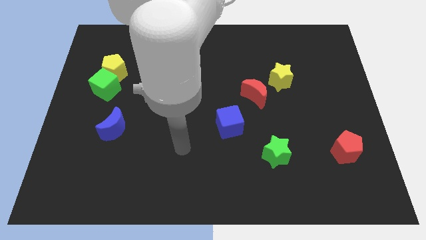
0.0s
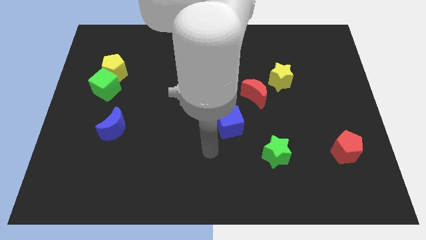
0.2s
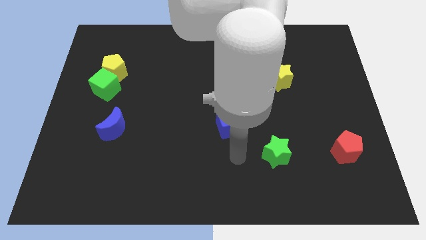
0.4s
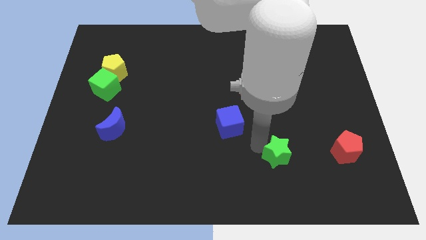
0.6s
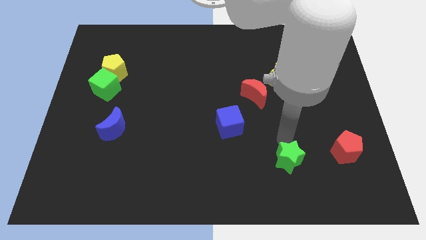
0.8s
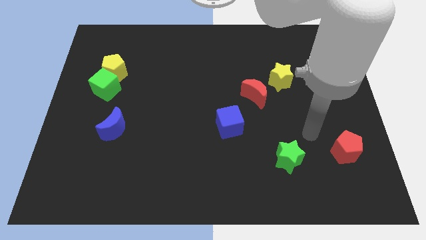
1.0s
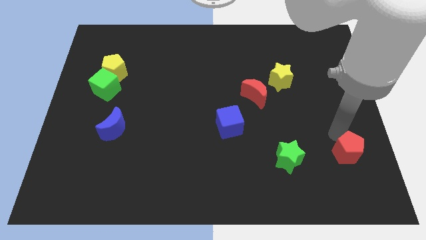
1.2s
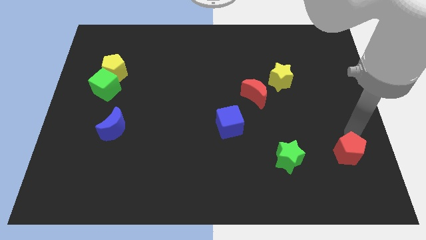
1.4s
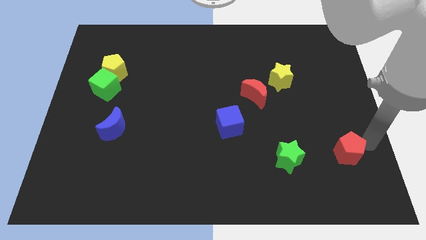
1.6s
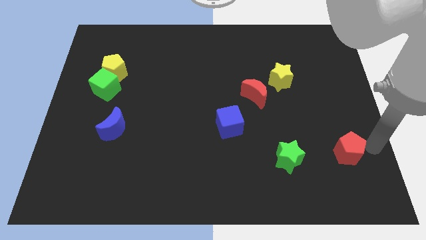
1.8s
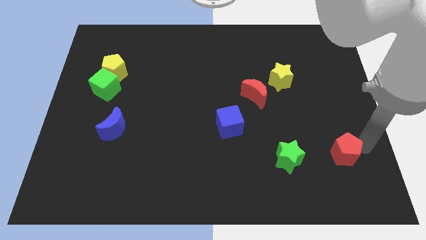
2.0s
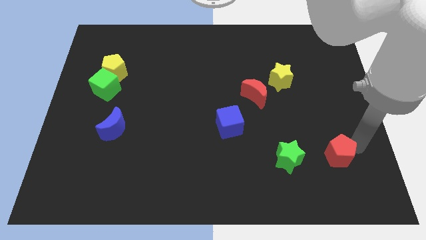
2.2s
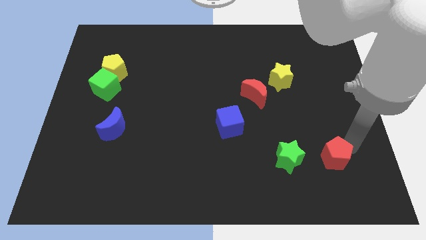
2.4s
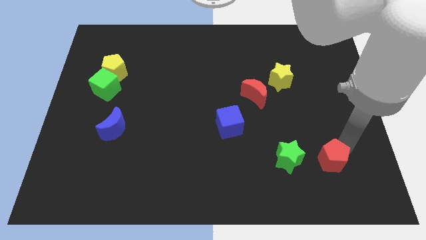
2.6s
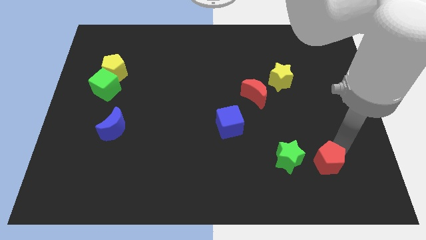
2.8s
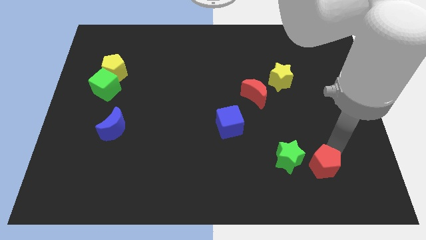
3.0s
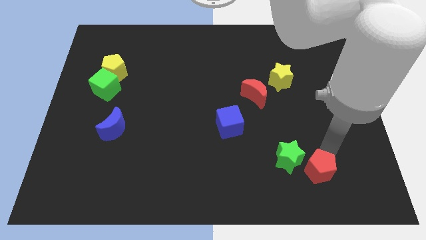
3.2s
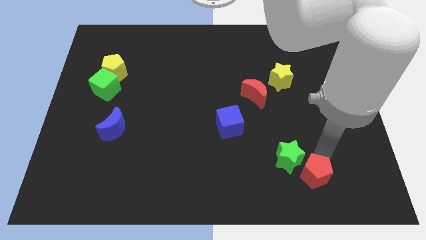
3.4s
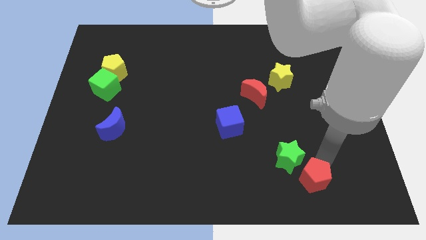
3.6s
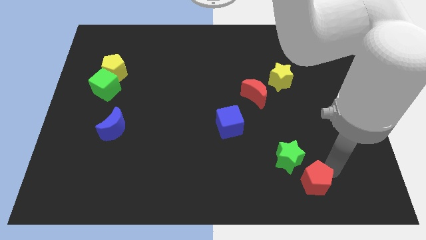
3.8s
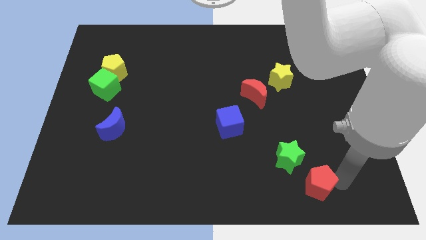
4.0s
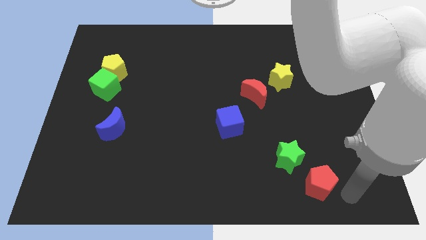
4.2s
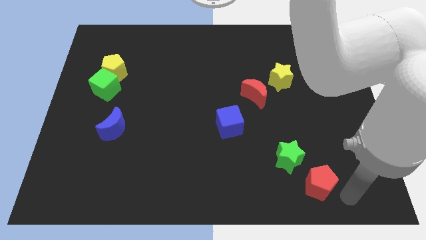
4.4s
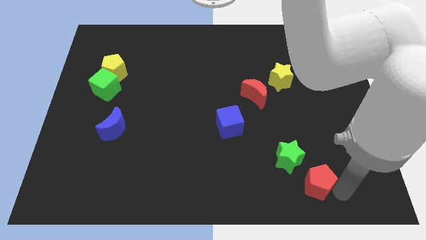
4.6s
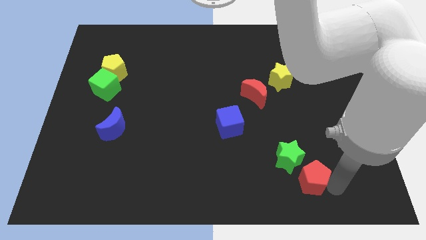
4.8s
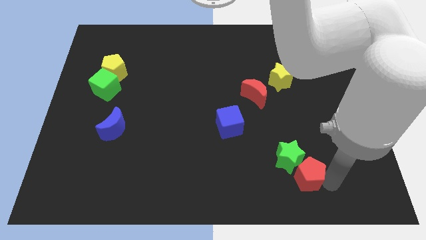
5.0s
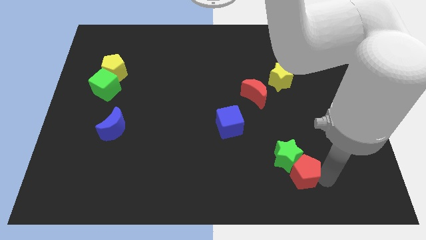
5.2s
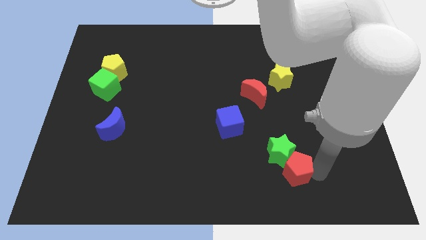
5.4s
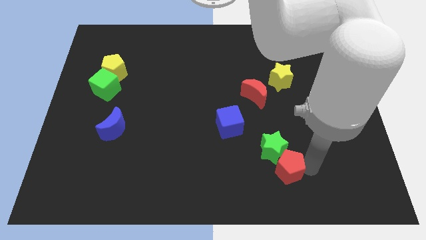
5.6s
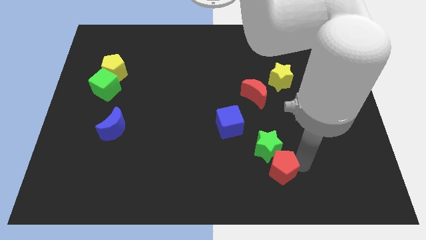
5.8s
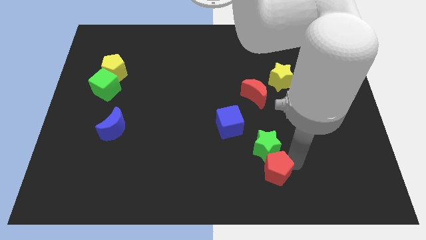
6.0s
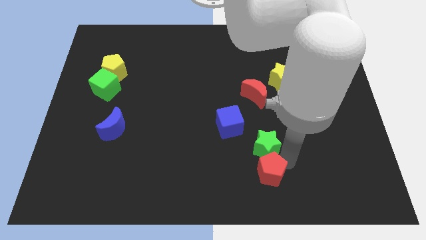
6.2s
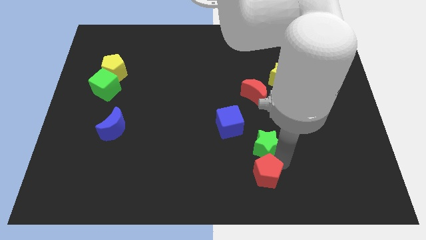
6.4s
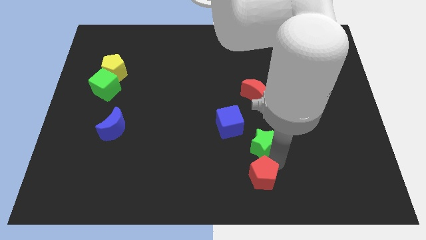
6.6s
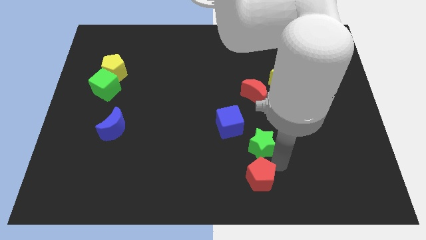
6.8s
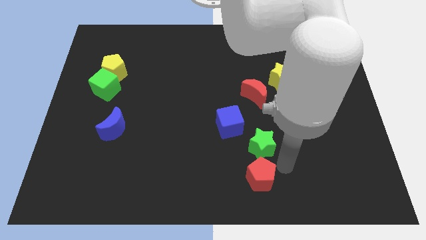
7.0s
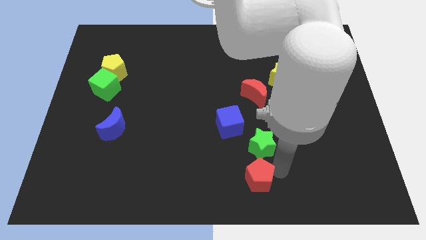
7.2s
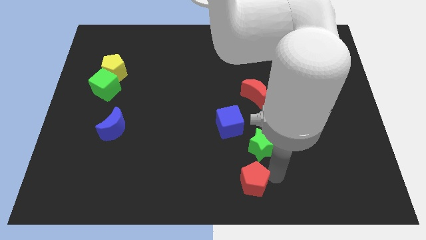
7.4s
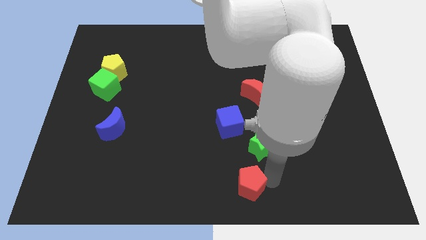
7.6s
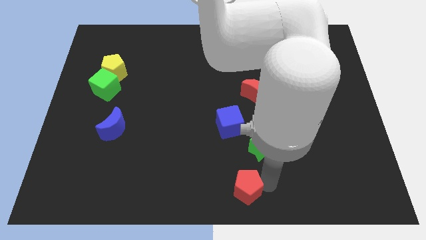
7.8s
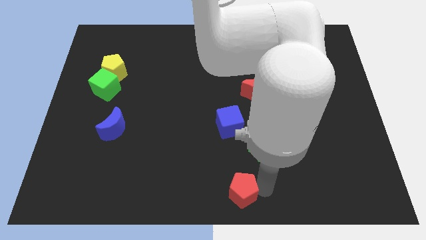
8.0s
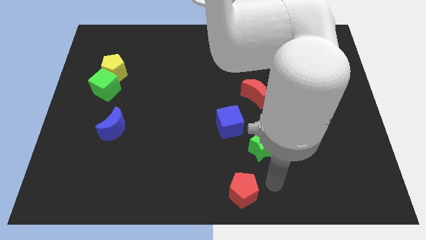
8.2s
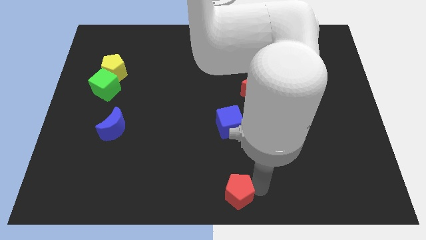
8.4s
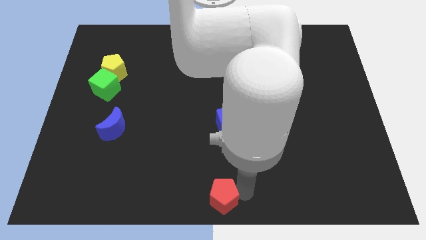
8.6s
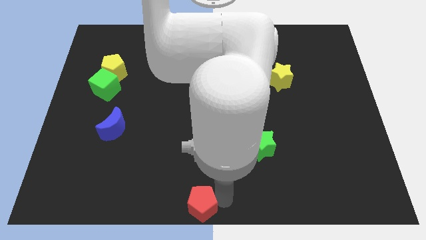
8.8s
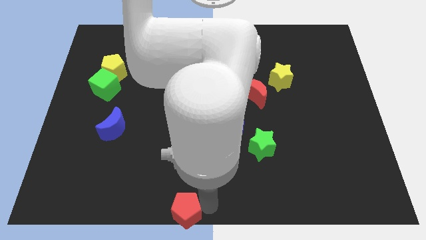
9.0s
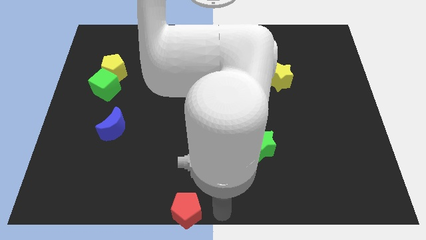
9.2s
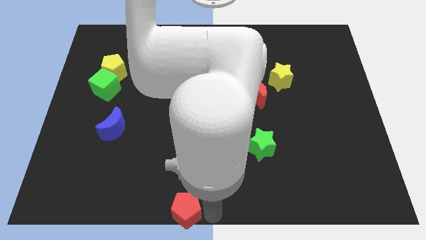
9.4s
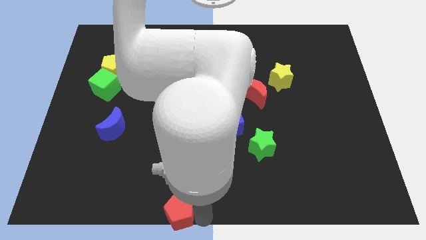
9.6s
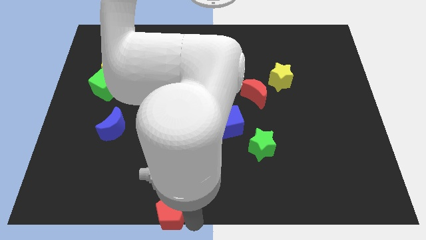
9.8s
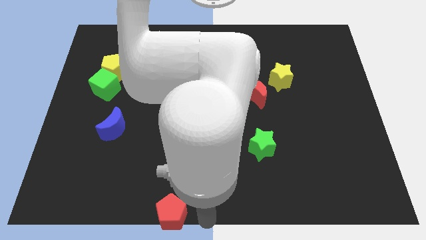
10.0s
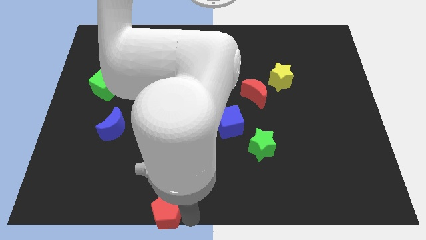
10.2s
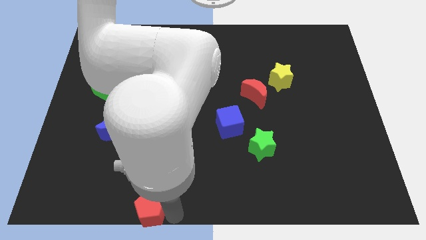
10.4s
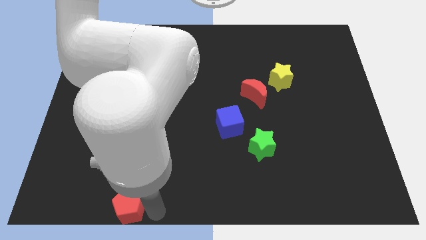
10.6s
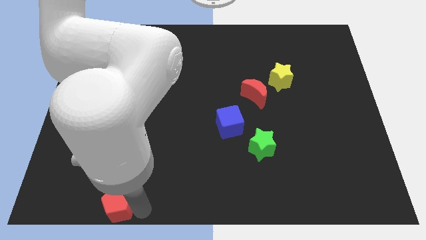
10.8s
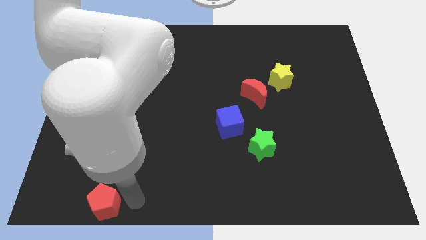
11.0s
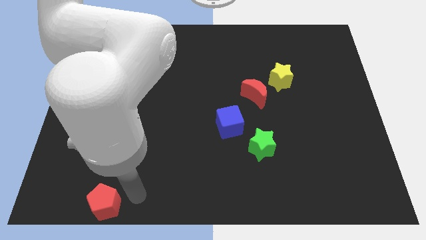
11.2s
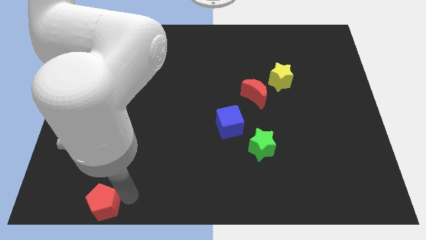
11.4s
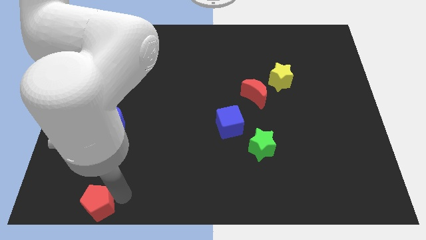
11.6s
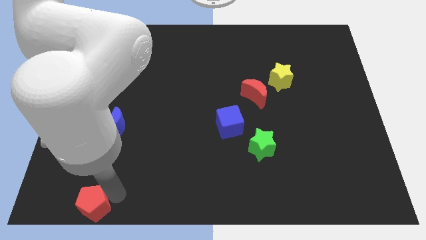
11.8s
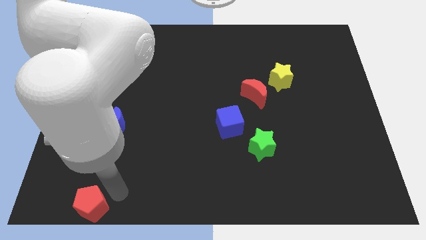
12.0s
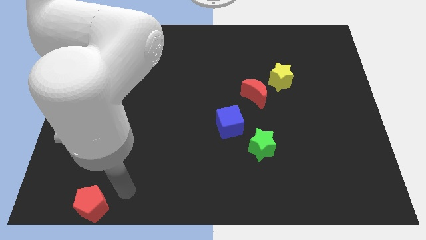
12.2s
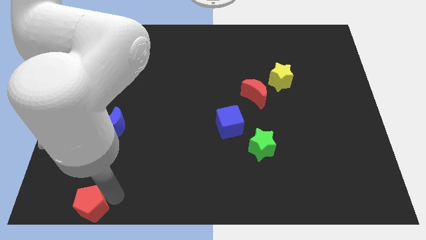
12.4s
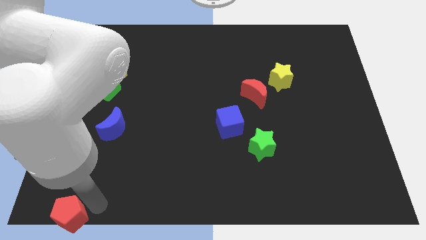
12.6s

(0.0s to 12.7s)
push the red pentagon to the bottom left

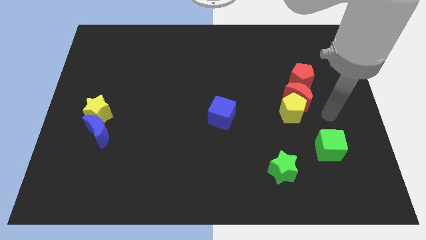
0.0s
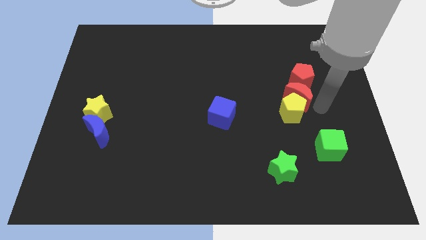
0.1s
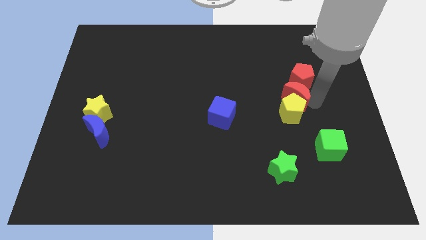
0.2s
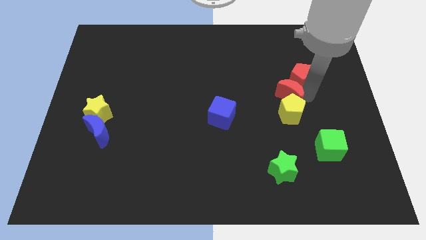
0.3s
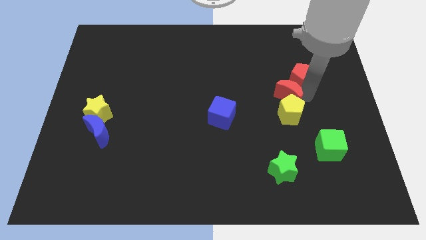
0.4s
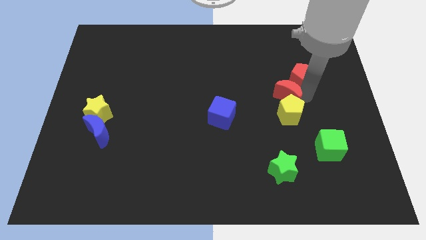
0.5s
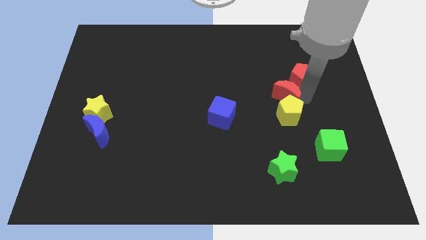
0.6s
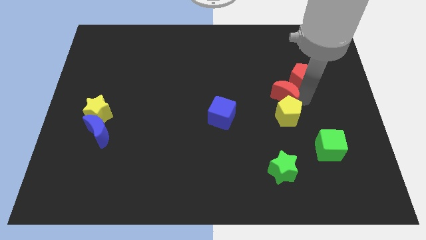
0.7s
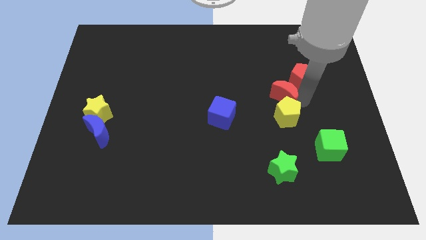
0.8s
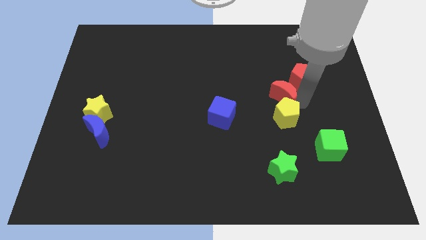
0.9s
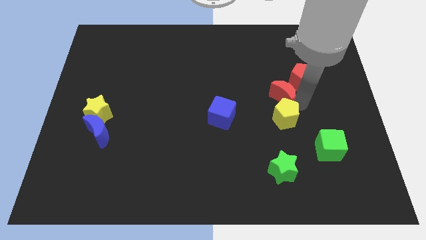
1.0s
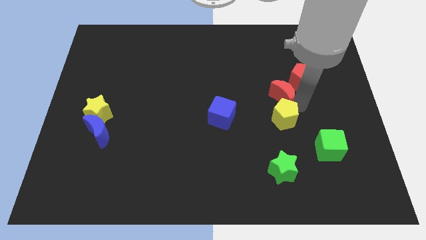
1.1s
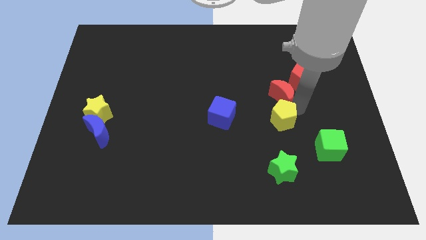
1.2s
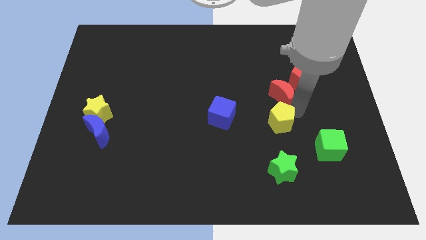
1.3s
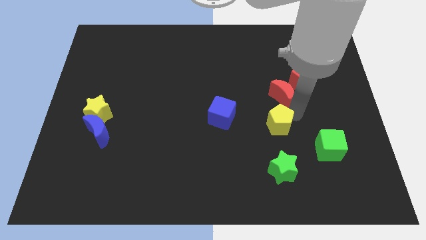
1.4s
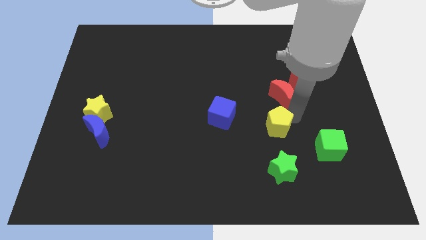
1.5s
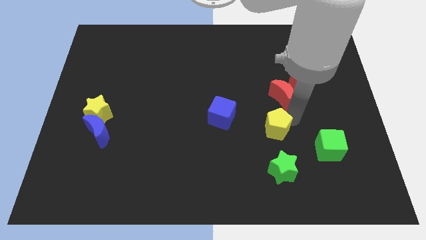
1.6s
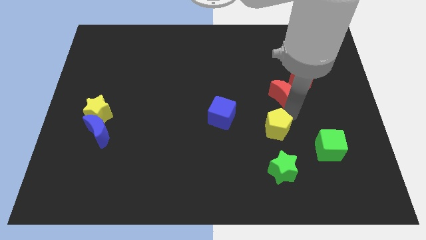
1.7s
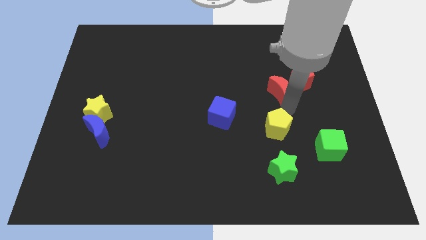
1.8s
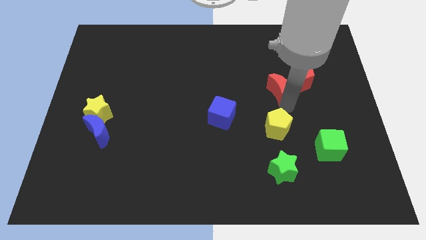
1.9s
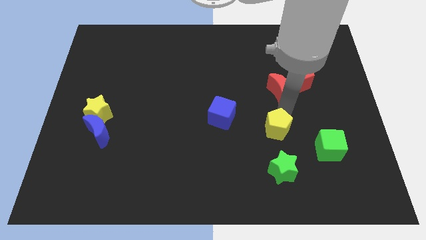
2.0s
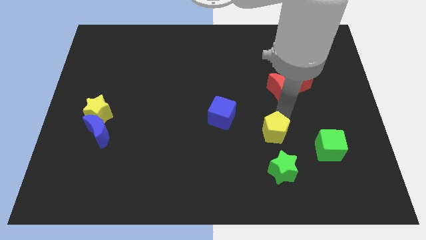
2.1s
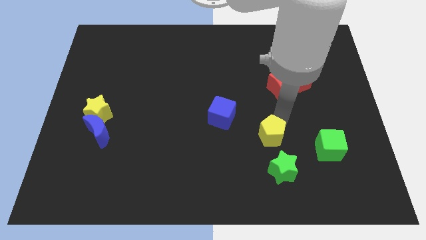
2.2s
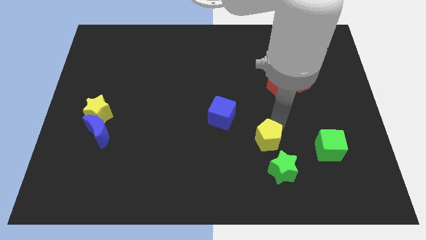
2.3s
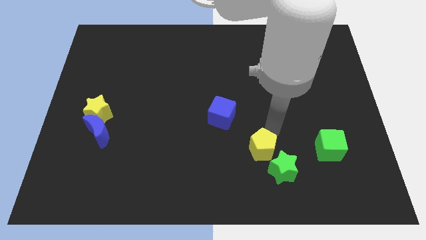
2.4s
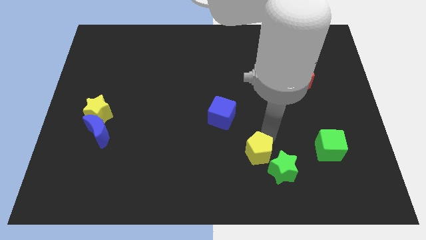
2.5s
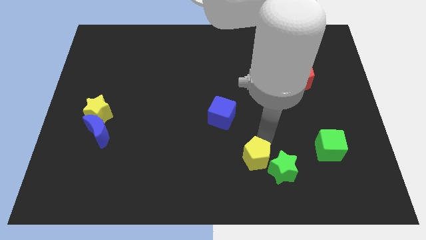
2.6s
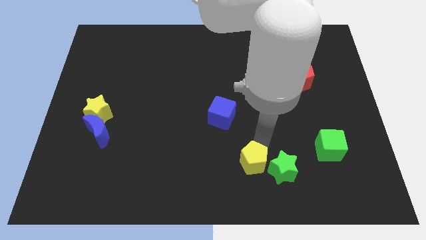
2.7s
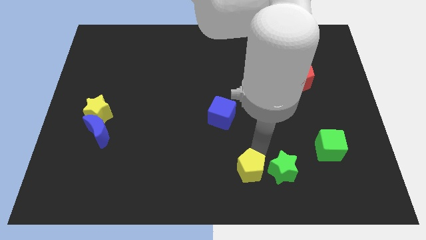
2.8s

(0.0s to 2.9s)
push the yellow pentagon to the bottom
